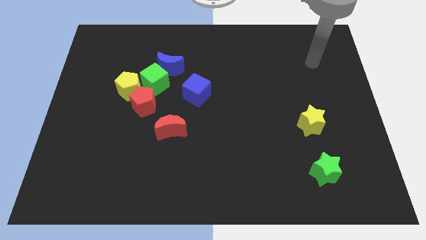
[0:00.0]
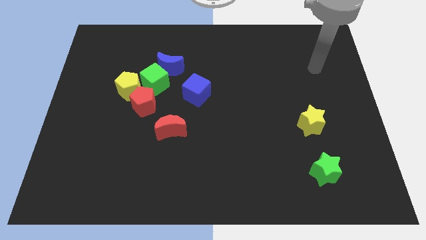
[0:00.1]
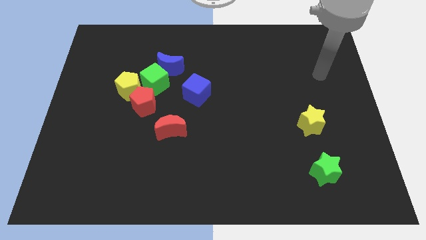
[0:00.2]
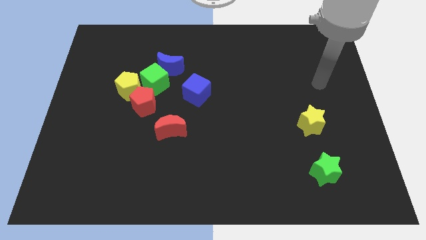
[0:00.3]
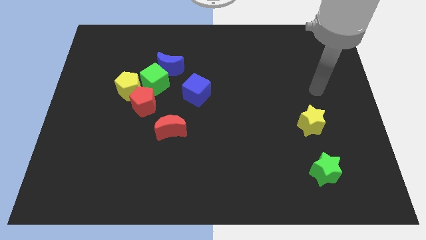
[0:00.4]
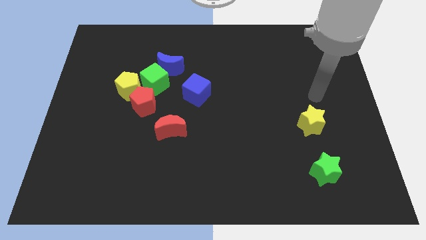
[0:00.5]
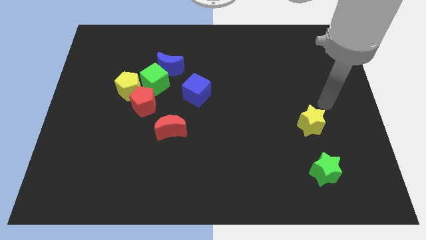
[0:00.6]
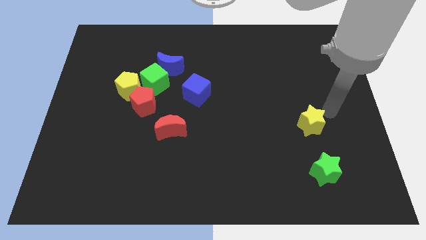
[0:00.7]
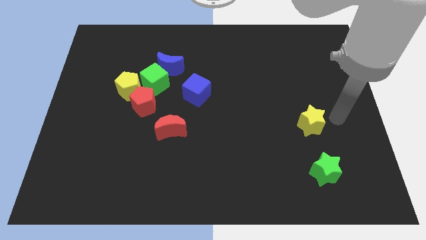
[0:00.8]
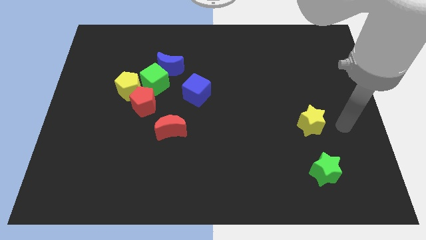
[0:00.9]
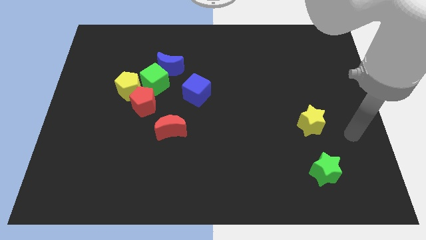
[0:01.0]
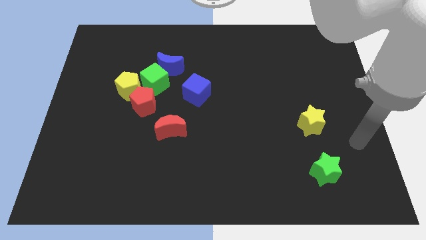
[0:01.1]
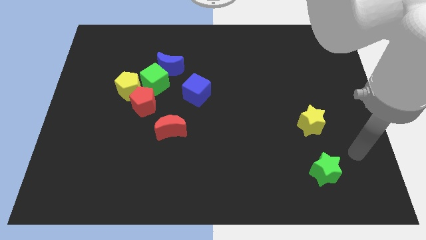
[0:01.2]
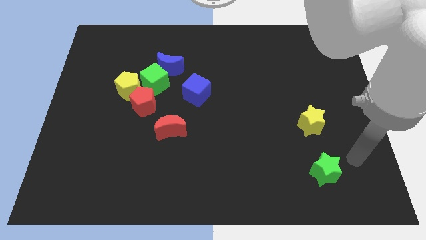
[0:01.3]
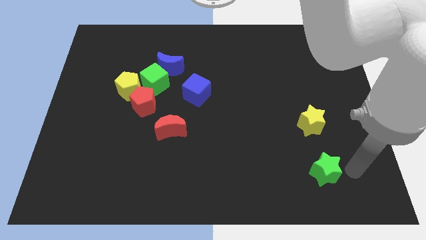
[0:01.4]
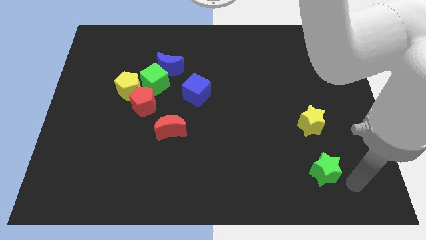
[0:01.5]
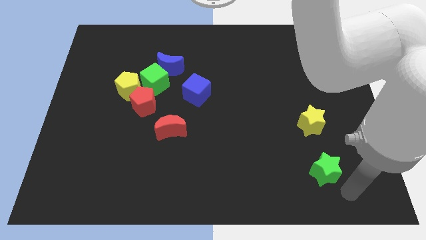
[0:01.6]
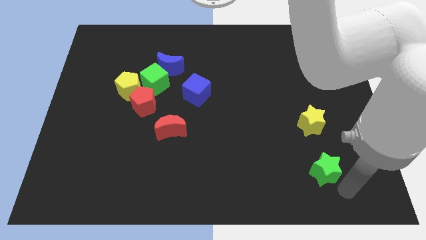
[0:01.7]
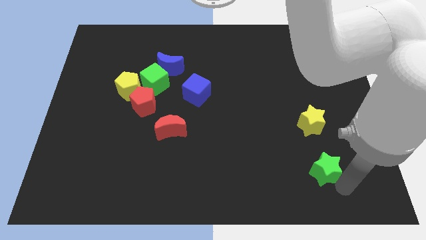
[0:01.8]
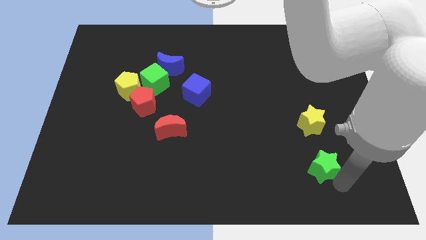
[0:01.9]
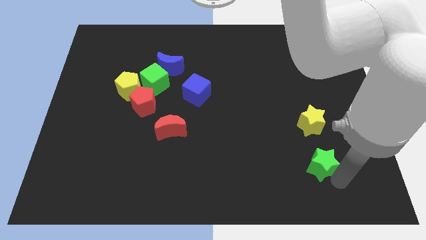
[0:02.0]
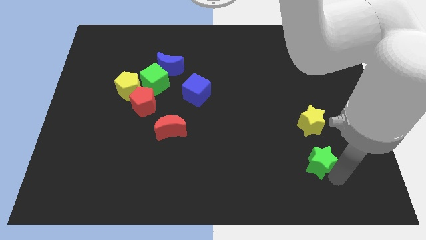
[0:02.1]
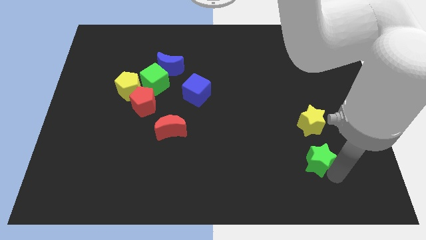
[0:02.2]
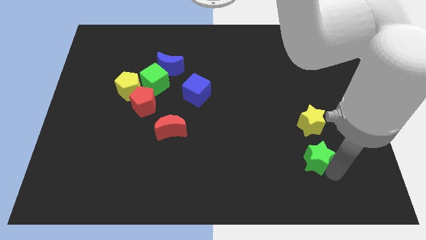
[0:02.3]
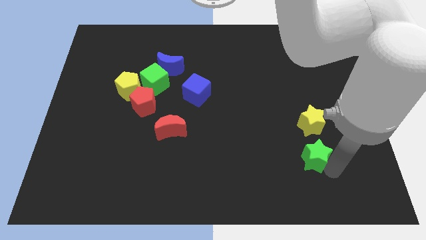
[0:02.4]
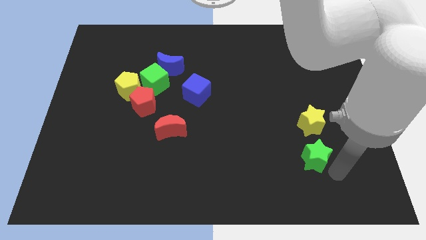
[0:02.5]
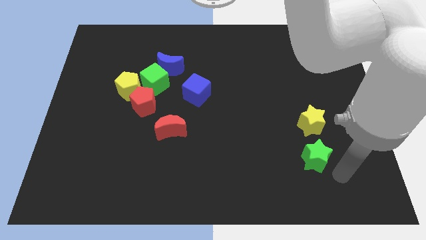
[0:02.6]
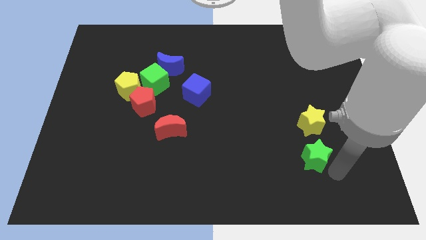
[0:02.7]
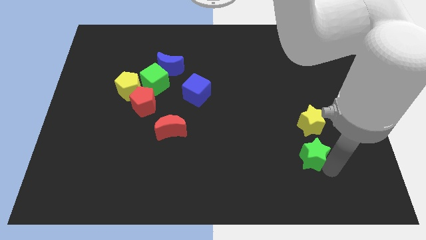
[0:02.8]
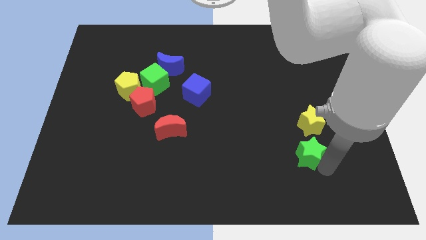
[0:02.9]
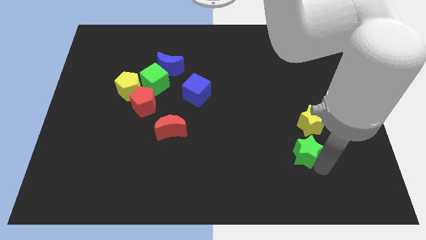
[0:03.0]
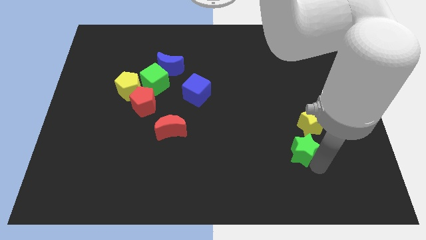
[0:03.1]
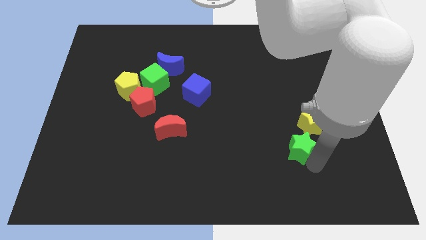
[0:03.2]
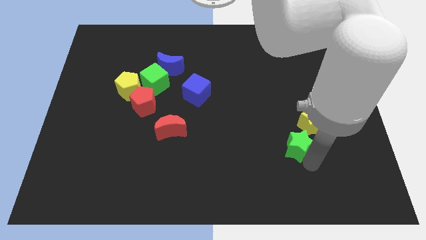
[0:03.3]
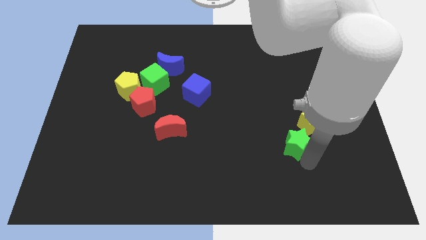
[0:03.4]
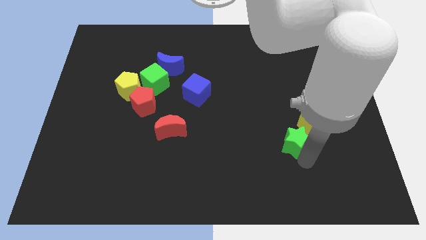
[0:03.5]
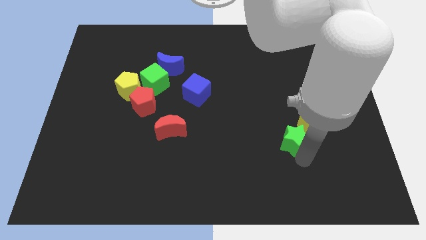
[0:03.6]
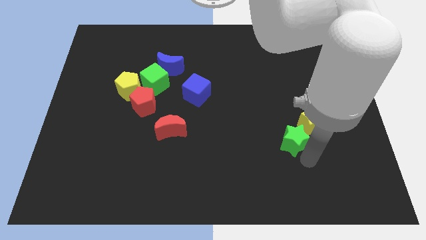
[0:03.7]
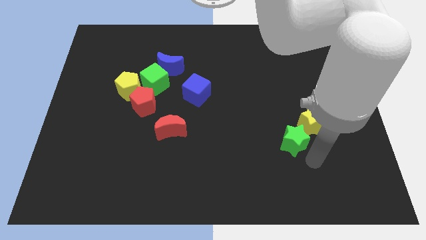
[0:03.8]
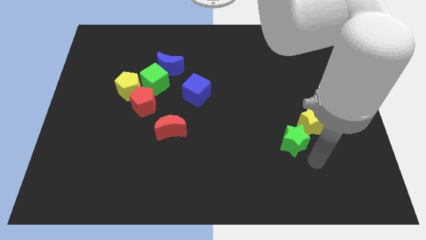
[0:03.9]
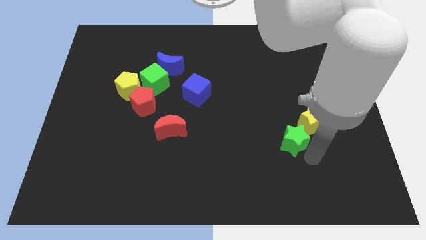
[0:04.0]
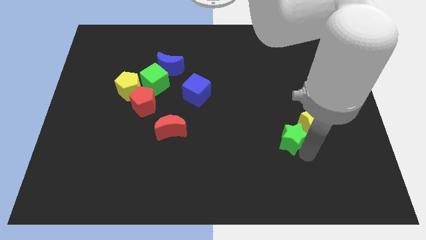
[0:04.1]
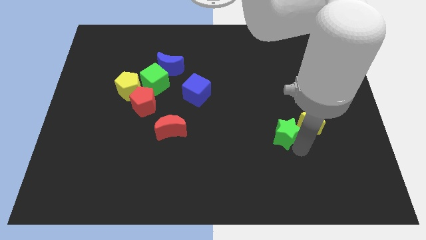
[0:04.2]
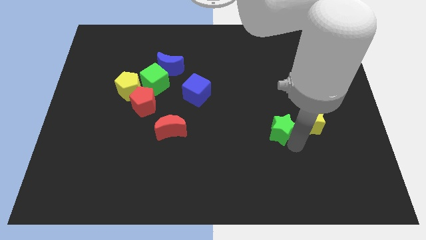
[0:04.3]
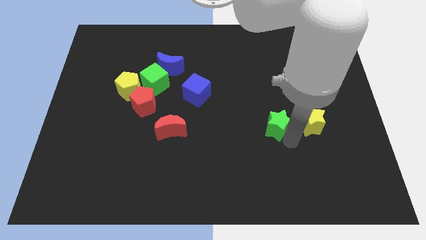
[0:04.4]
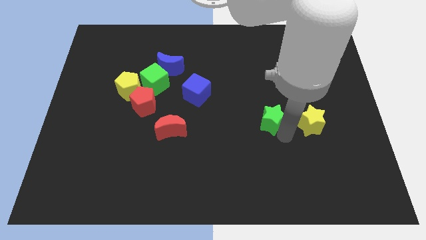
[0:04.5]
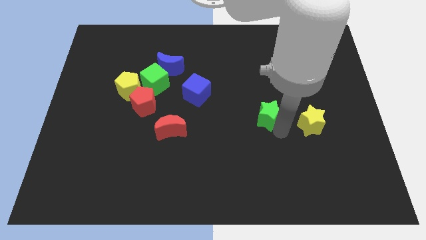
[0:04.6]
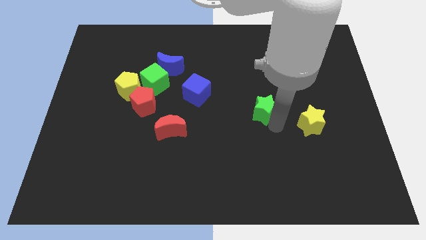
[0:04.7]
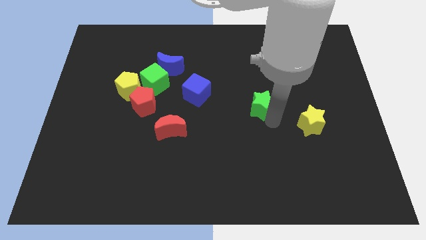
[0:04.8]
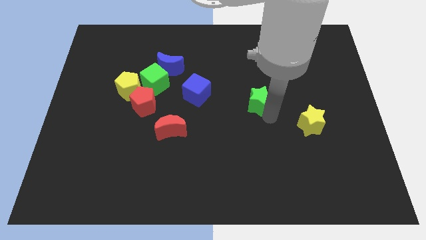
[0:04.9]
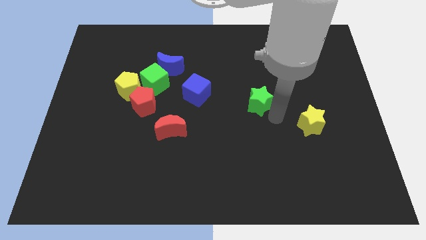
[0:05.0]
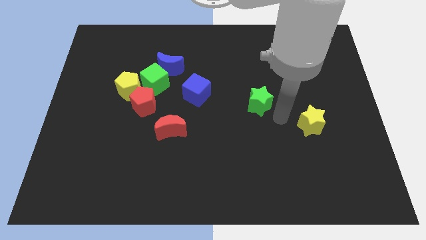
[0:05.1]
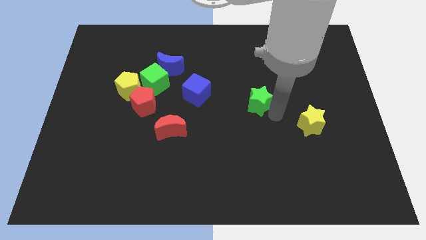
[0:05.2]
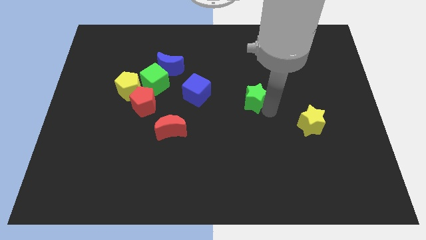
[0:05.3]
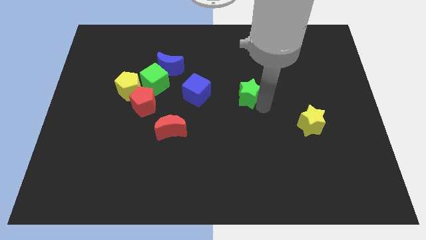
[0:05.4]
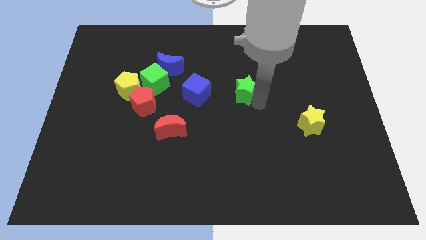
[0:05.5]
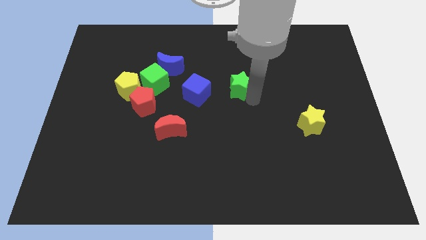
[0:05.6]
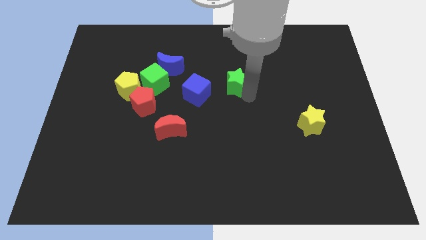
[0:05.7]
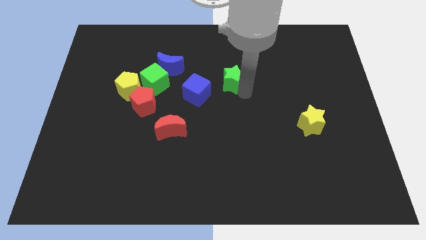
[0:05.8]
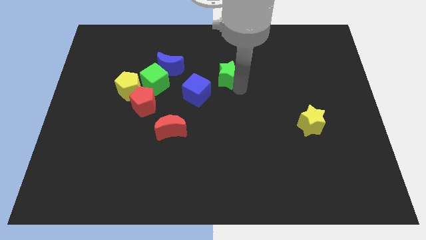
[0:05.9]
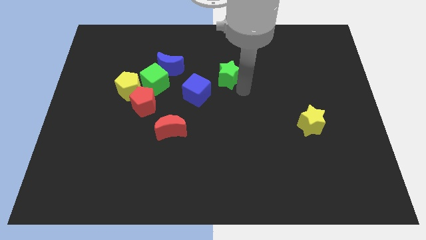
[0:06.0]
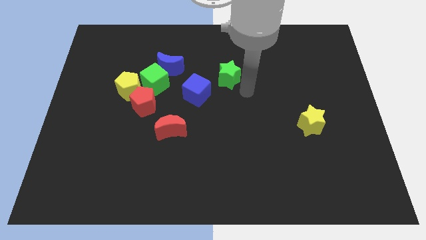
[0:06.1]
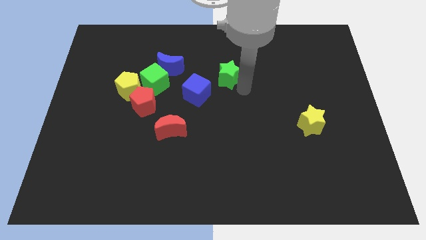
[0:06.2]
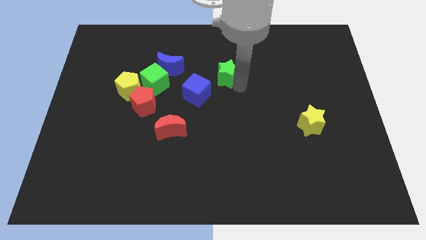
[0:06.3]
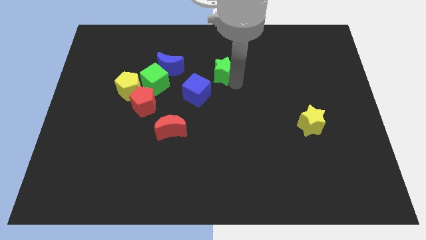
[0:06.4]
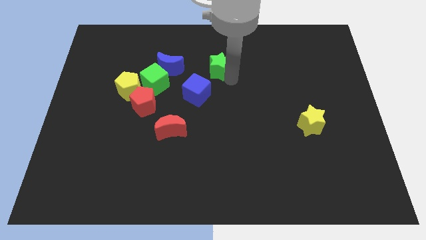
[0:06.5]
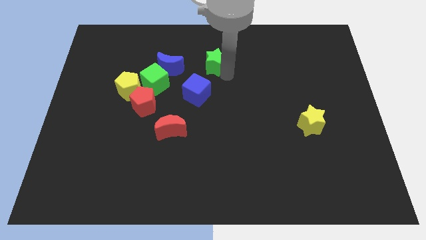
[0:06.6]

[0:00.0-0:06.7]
put the green star to the top of the blue cube

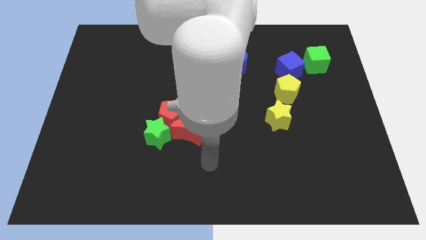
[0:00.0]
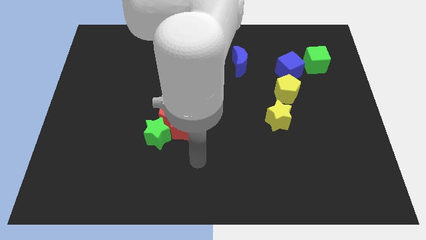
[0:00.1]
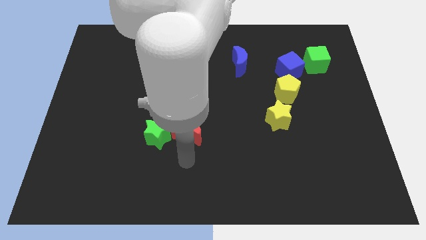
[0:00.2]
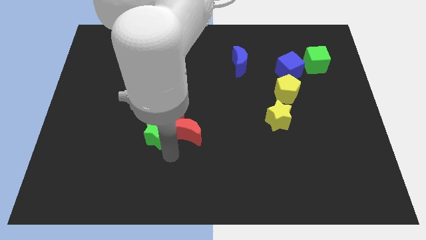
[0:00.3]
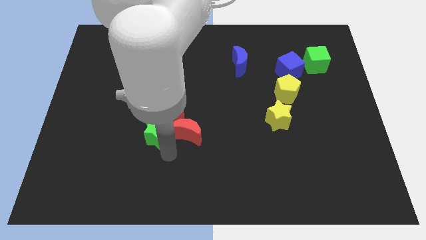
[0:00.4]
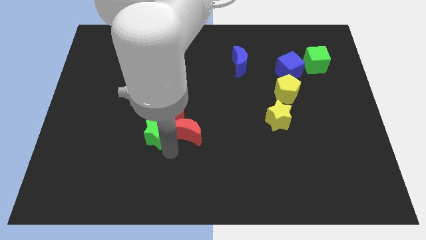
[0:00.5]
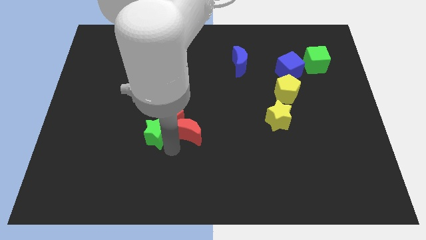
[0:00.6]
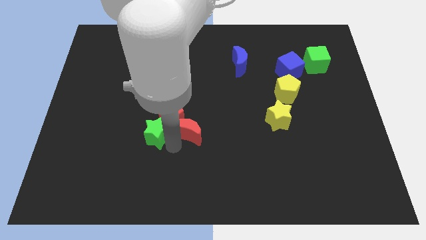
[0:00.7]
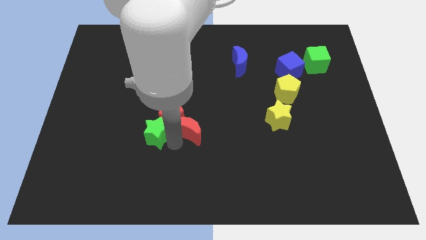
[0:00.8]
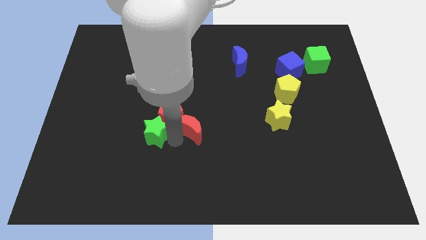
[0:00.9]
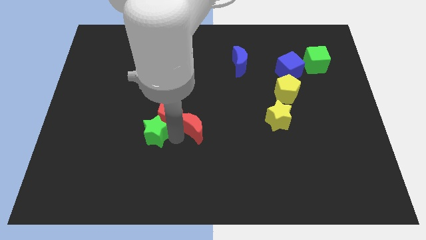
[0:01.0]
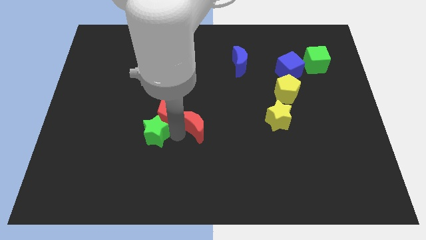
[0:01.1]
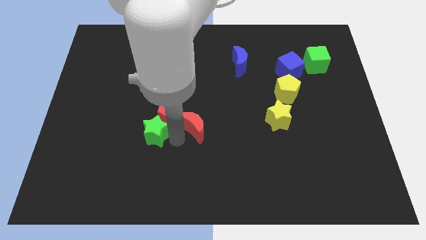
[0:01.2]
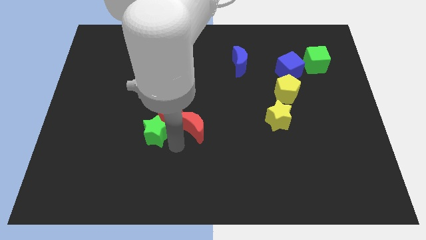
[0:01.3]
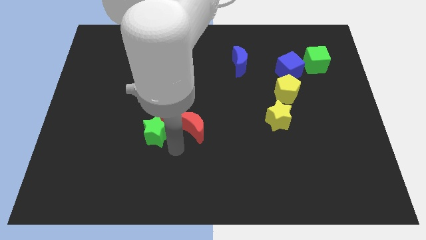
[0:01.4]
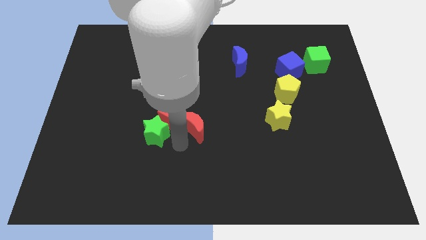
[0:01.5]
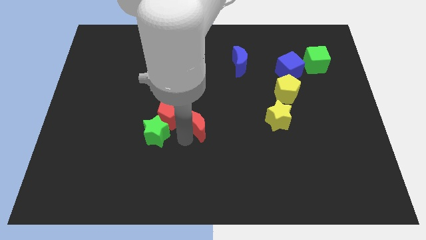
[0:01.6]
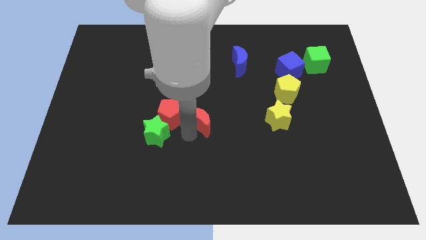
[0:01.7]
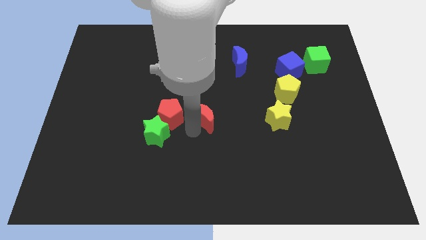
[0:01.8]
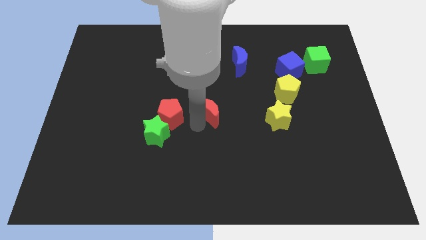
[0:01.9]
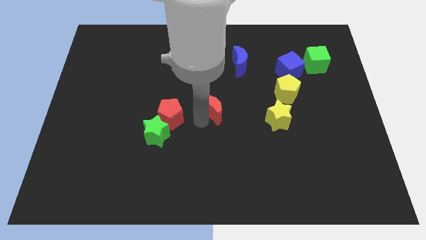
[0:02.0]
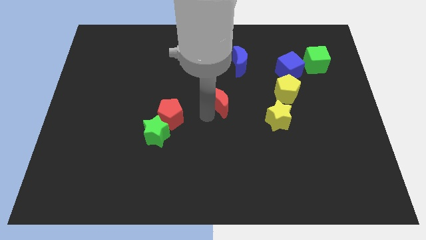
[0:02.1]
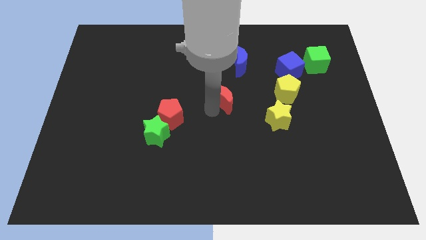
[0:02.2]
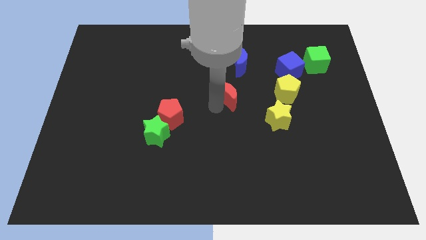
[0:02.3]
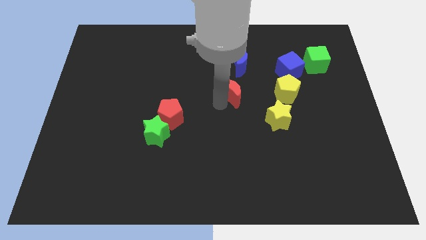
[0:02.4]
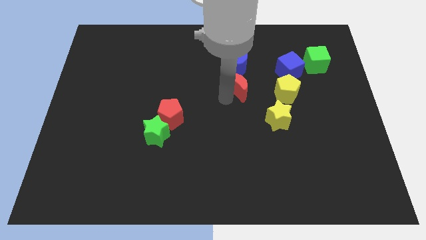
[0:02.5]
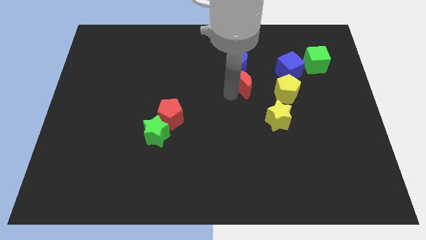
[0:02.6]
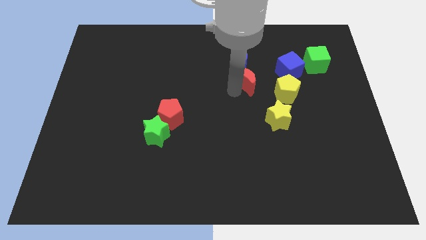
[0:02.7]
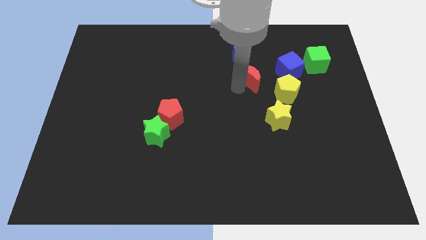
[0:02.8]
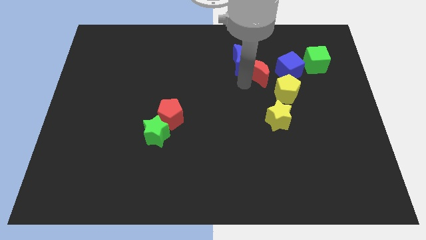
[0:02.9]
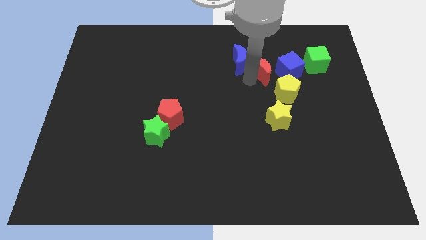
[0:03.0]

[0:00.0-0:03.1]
put the red moon to the left of the green cube
